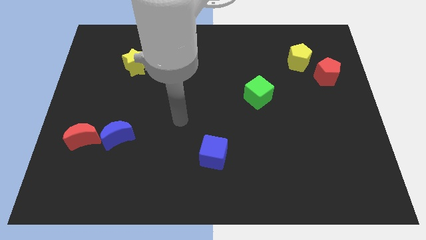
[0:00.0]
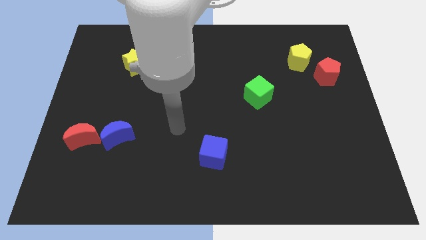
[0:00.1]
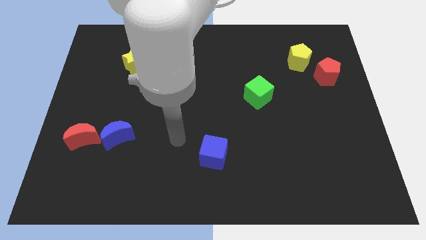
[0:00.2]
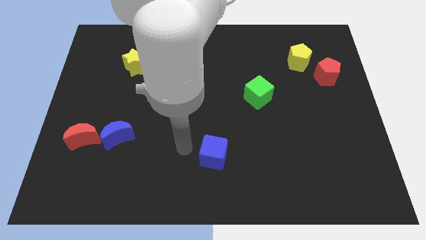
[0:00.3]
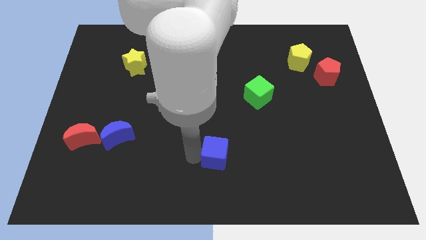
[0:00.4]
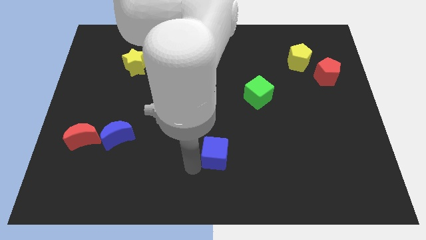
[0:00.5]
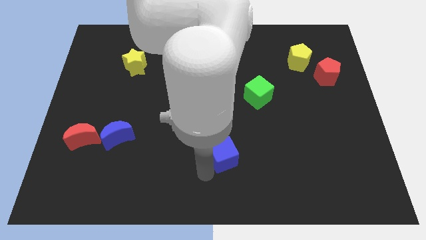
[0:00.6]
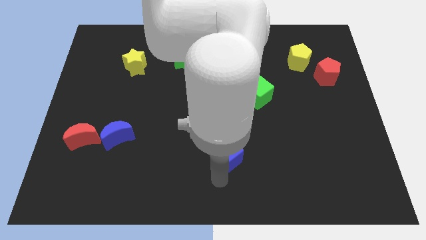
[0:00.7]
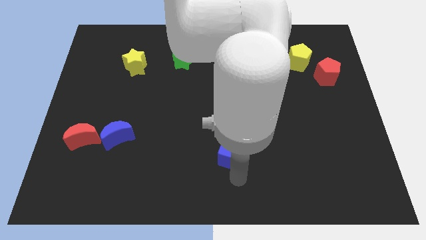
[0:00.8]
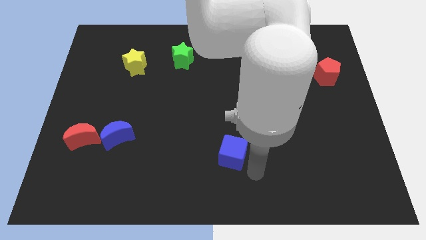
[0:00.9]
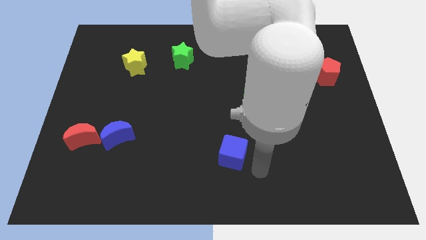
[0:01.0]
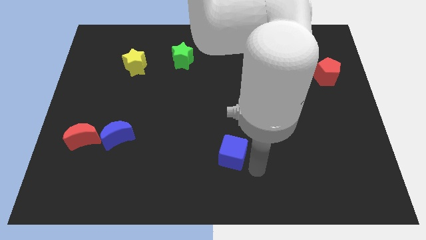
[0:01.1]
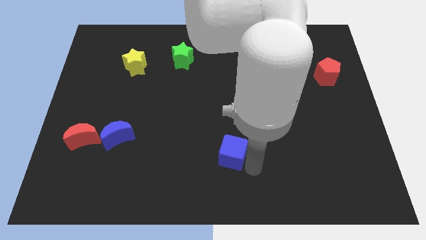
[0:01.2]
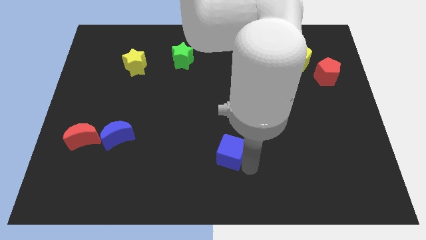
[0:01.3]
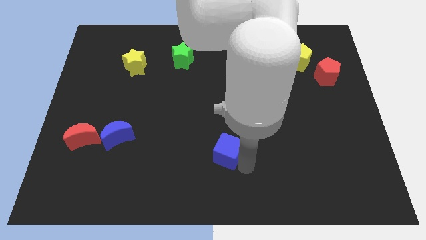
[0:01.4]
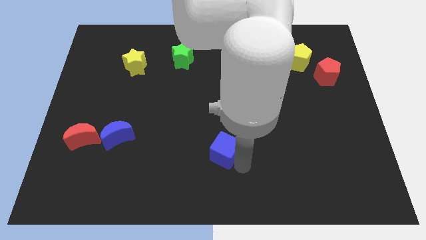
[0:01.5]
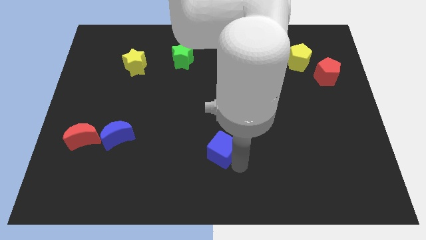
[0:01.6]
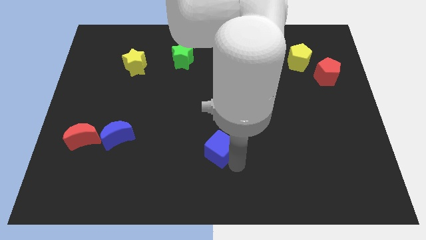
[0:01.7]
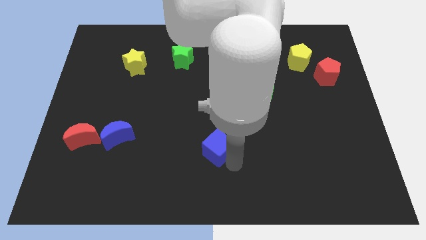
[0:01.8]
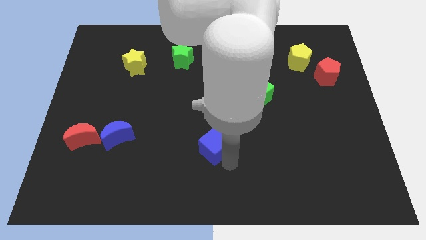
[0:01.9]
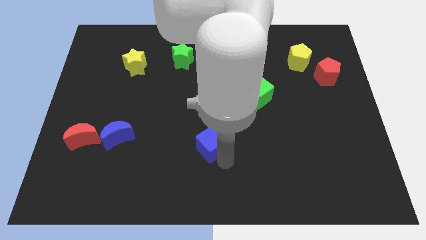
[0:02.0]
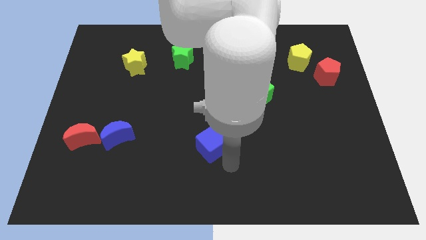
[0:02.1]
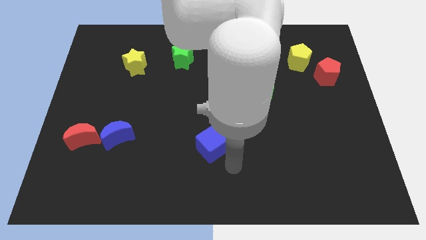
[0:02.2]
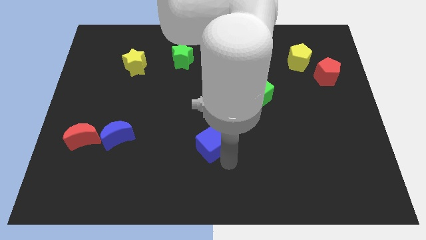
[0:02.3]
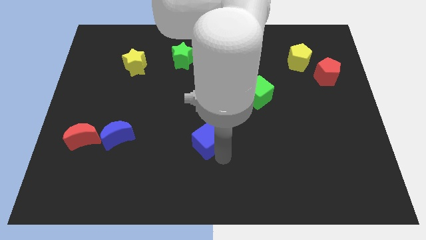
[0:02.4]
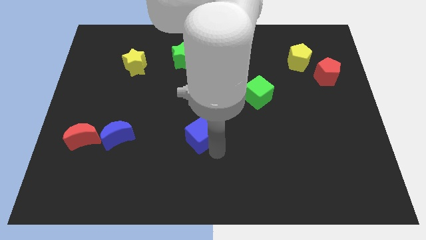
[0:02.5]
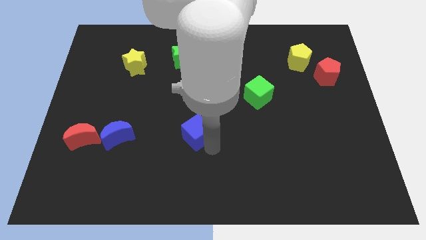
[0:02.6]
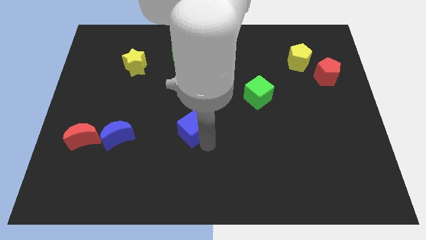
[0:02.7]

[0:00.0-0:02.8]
slide the blue cube up and left diagonally slightly

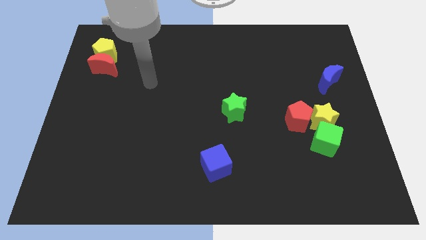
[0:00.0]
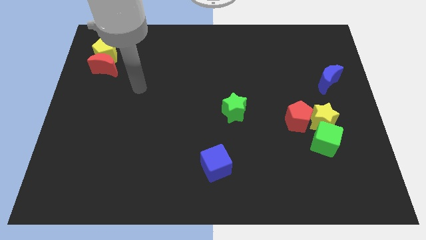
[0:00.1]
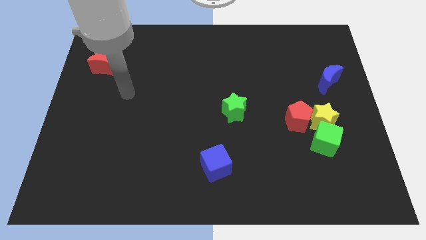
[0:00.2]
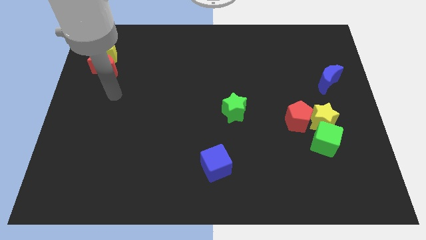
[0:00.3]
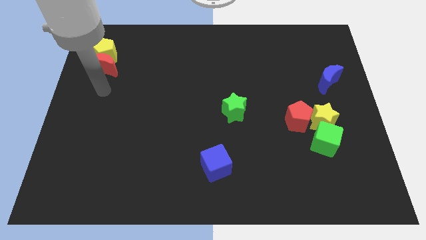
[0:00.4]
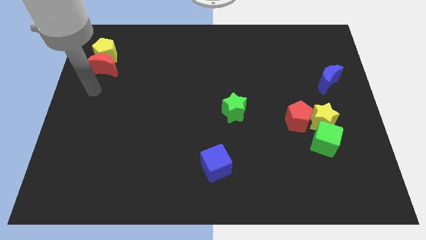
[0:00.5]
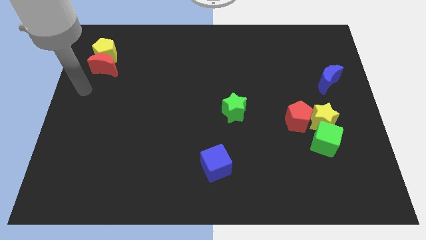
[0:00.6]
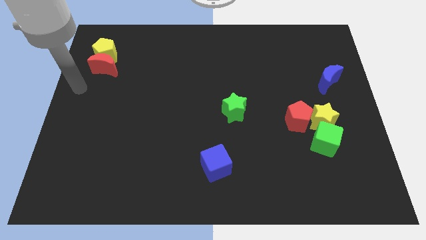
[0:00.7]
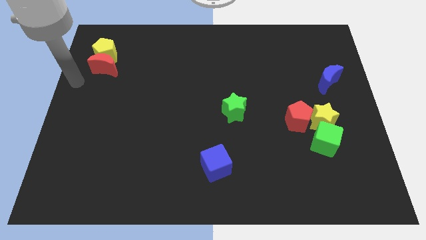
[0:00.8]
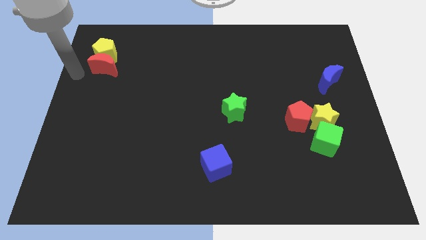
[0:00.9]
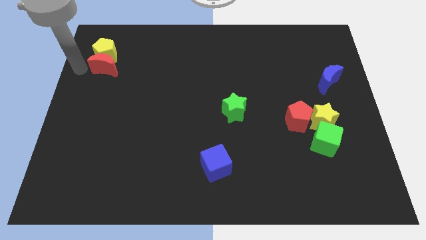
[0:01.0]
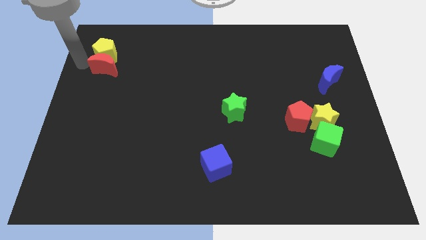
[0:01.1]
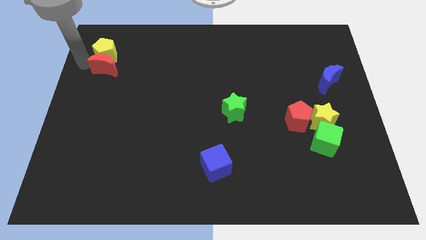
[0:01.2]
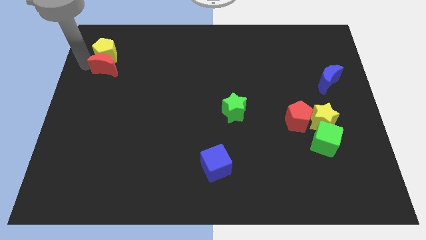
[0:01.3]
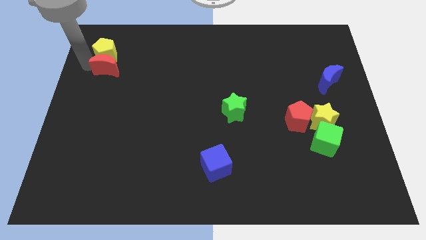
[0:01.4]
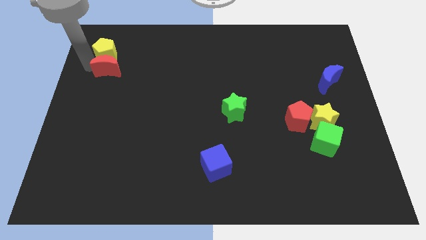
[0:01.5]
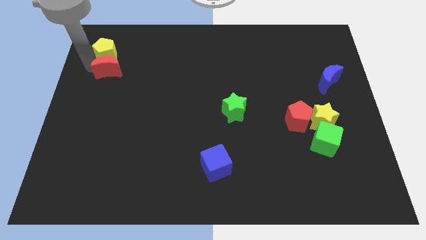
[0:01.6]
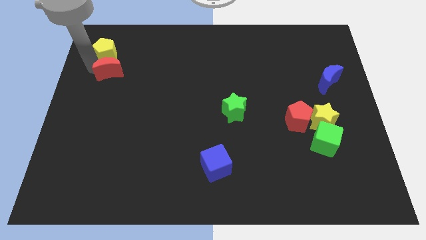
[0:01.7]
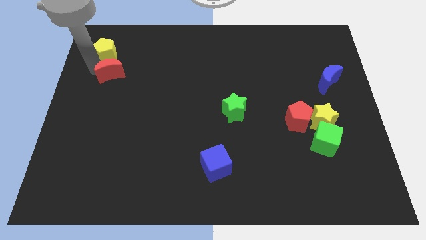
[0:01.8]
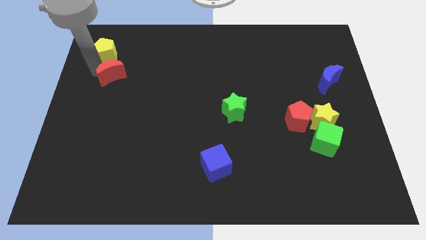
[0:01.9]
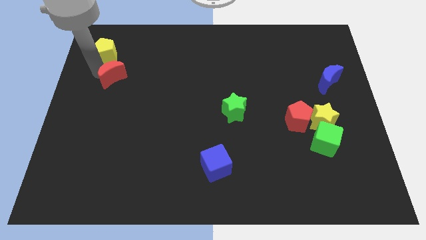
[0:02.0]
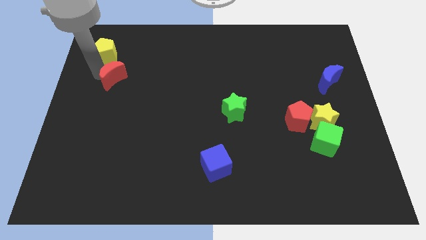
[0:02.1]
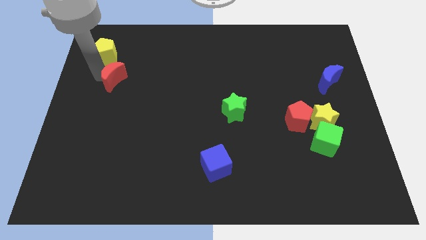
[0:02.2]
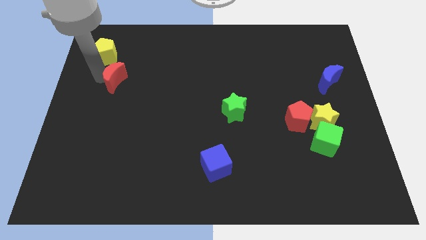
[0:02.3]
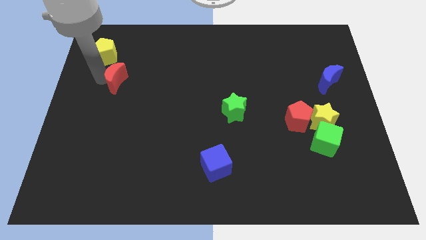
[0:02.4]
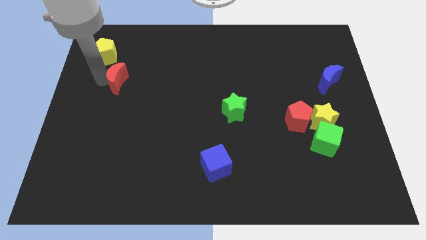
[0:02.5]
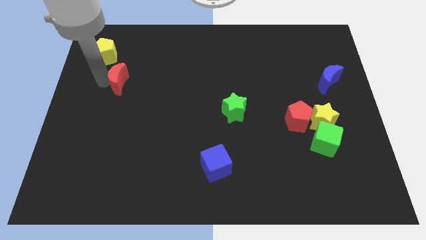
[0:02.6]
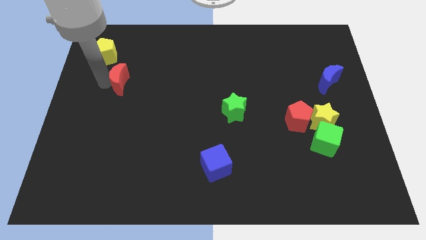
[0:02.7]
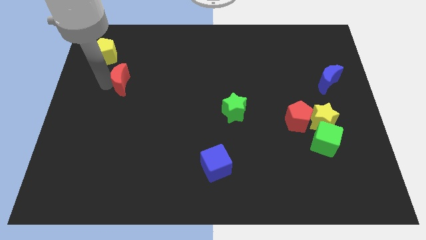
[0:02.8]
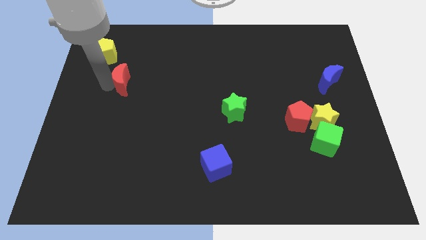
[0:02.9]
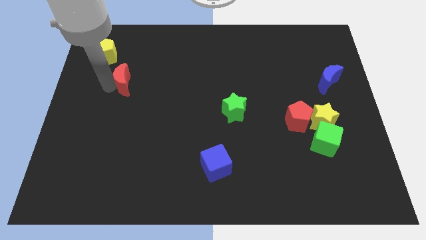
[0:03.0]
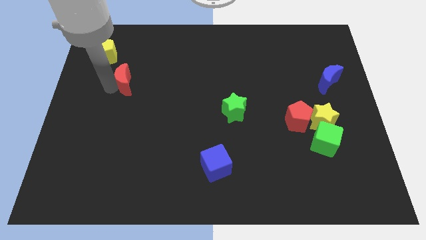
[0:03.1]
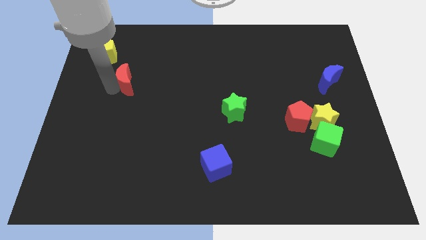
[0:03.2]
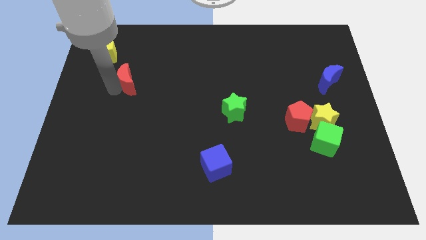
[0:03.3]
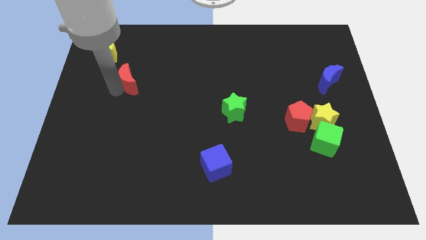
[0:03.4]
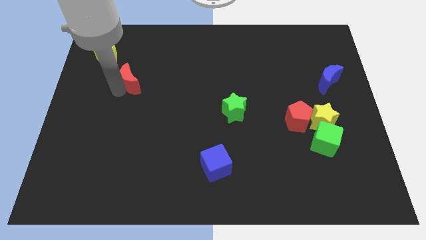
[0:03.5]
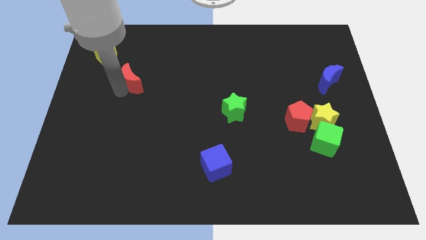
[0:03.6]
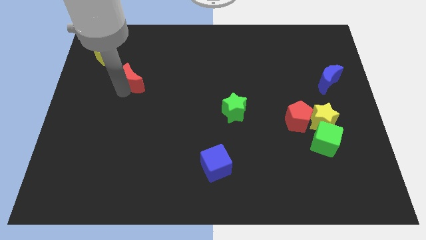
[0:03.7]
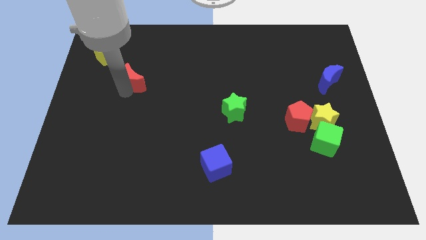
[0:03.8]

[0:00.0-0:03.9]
slide the red moon a bit right

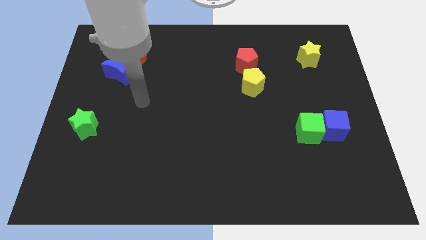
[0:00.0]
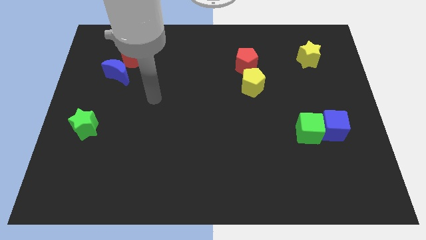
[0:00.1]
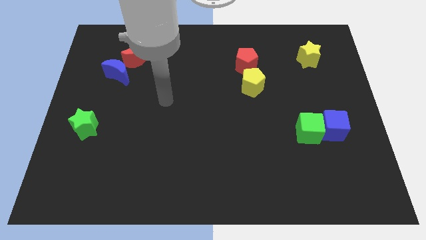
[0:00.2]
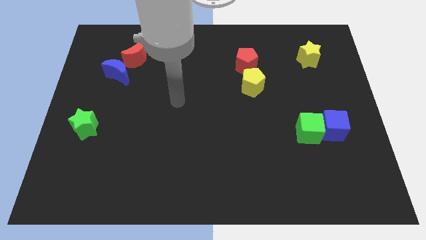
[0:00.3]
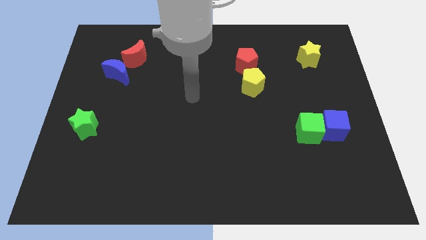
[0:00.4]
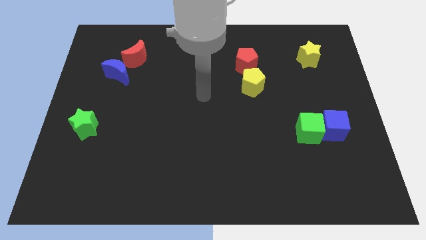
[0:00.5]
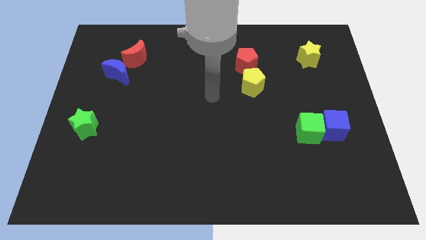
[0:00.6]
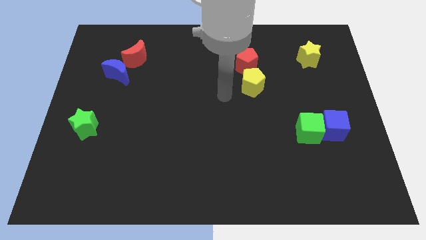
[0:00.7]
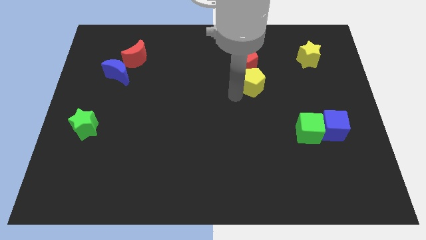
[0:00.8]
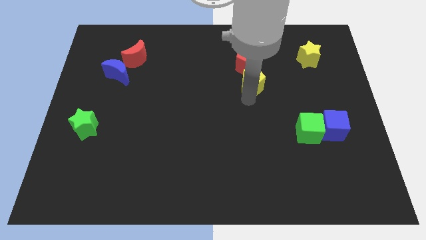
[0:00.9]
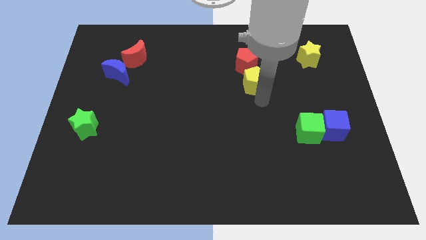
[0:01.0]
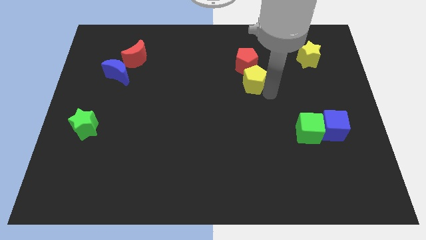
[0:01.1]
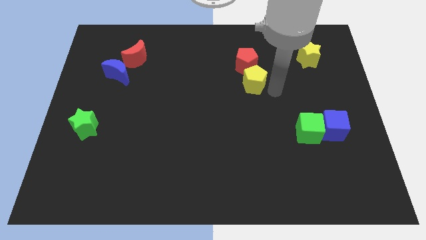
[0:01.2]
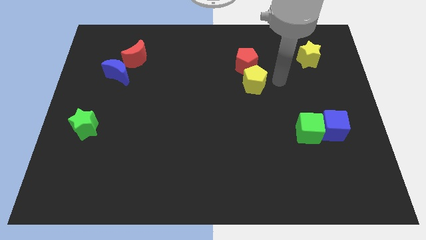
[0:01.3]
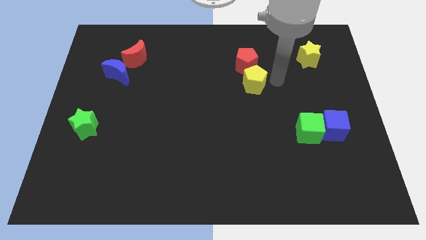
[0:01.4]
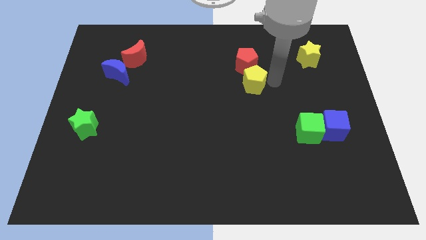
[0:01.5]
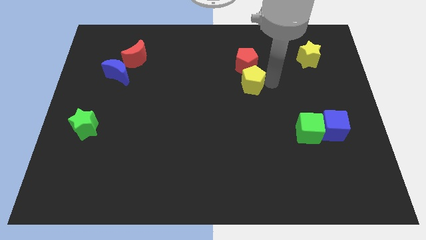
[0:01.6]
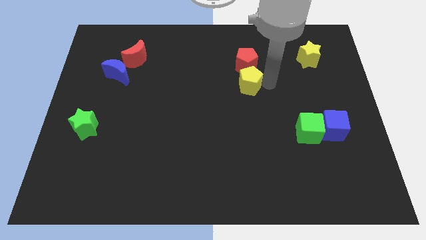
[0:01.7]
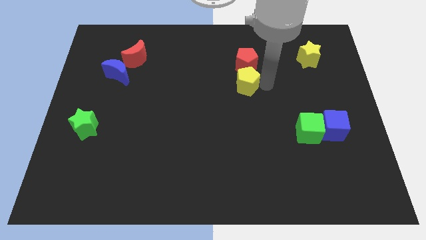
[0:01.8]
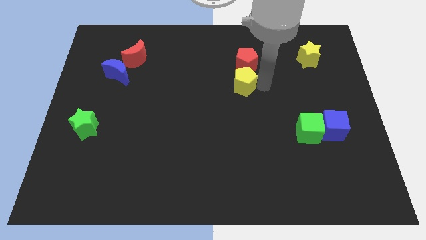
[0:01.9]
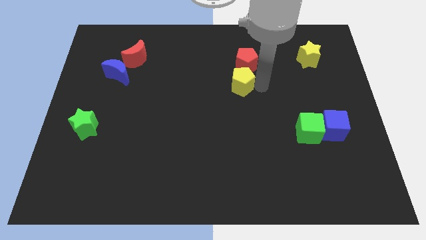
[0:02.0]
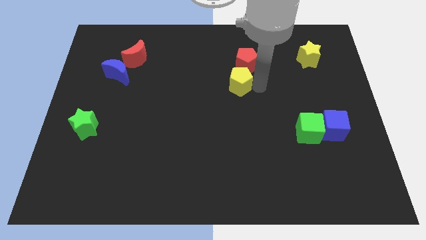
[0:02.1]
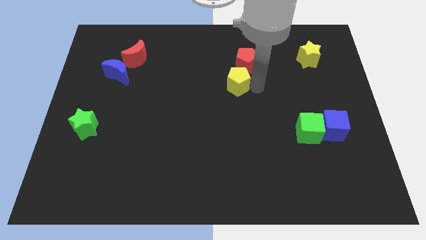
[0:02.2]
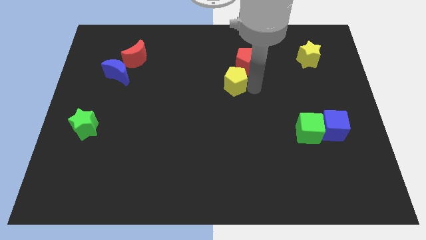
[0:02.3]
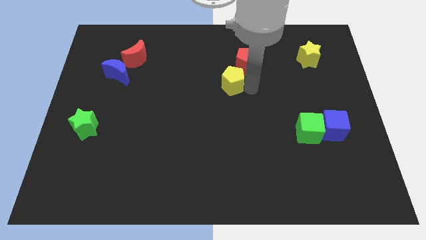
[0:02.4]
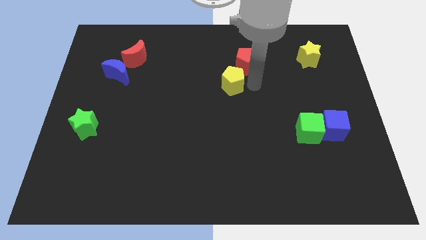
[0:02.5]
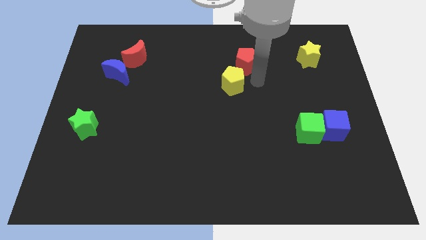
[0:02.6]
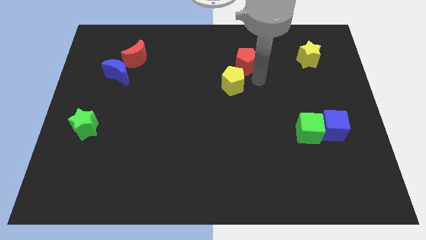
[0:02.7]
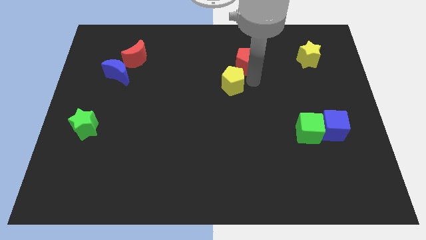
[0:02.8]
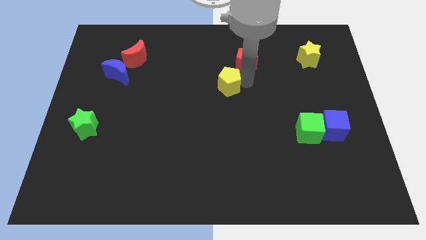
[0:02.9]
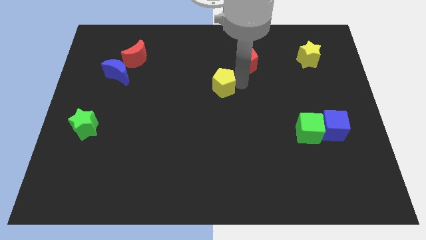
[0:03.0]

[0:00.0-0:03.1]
slightly move the yellow pentagon left
